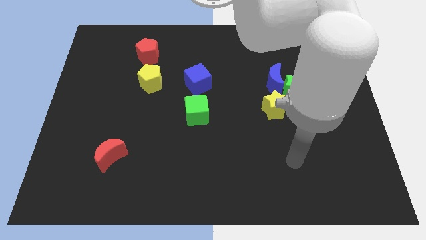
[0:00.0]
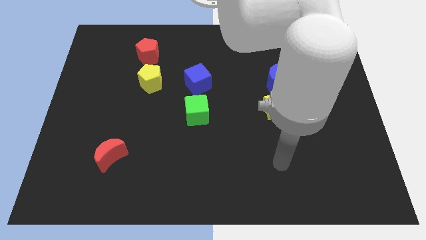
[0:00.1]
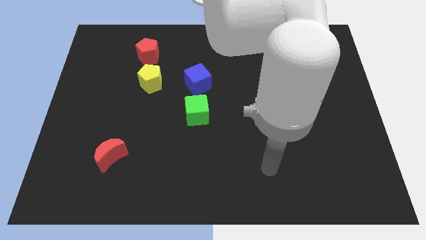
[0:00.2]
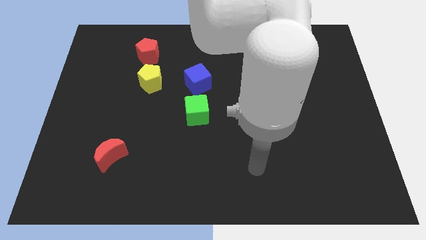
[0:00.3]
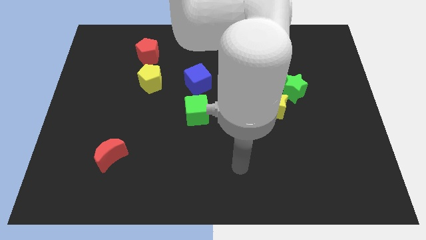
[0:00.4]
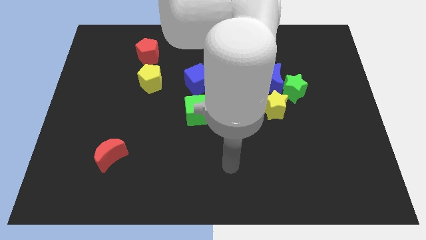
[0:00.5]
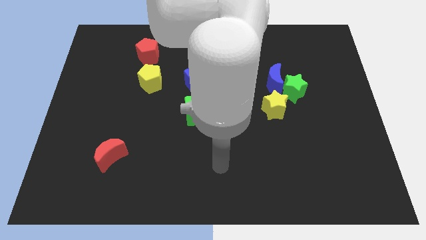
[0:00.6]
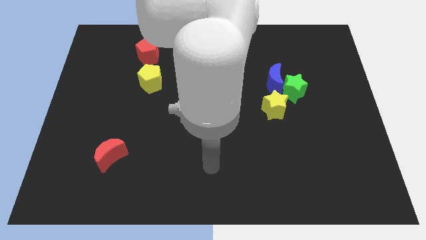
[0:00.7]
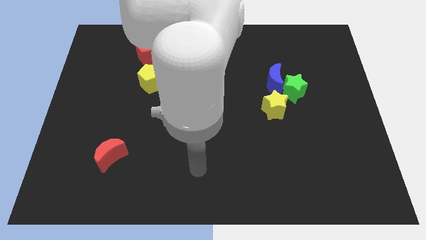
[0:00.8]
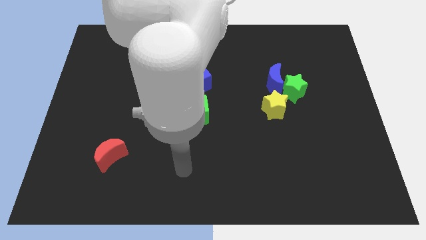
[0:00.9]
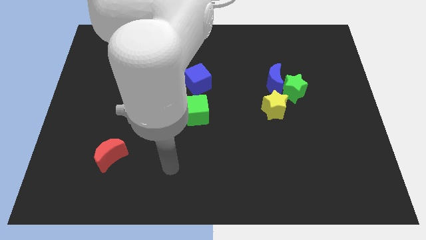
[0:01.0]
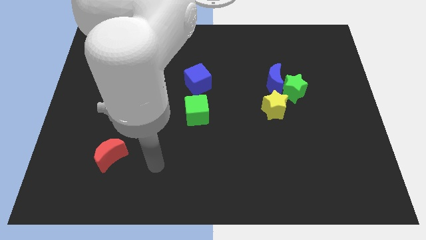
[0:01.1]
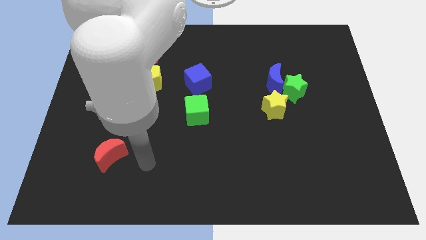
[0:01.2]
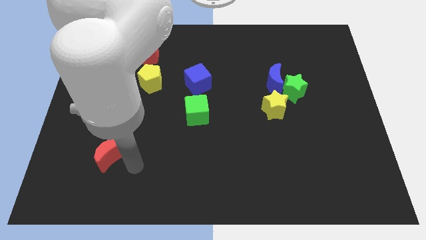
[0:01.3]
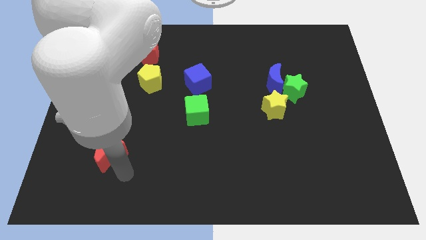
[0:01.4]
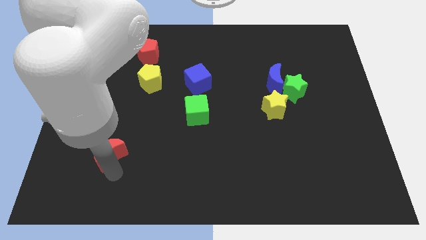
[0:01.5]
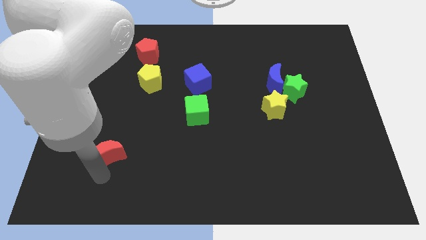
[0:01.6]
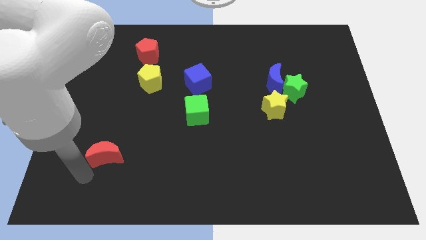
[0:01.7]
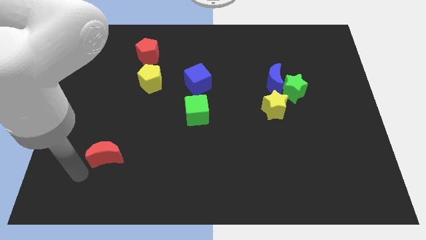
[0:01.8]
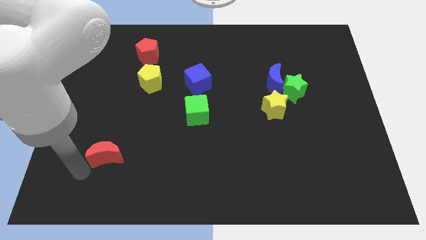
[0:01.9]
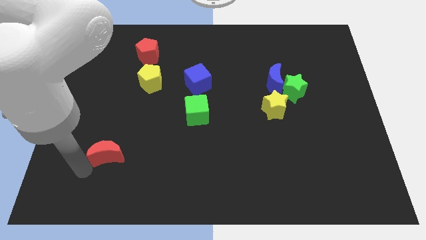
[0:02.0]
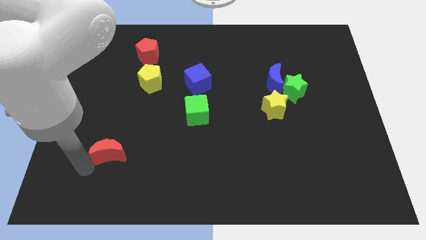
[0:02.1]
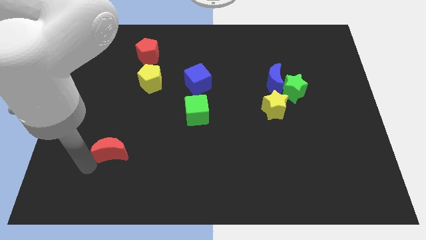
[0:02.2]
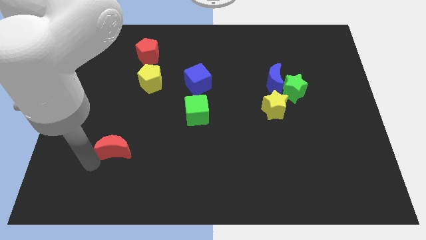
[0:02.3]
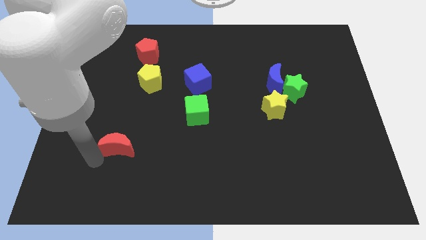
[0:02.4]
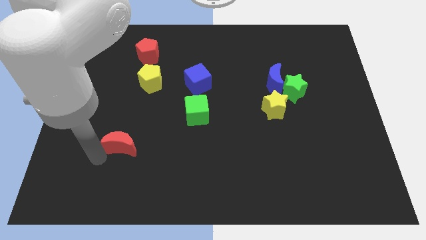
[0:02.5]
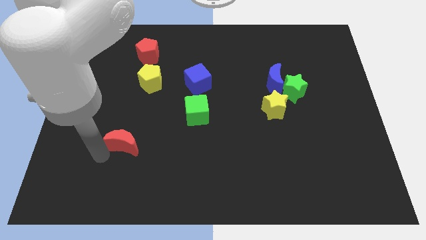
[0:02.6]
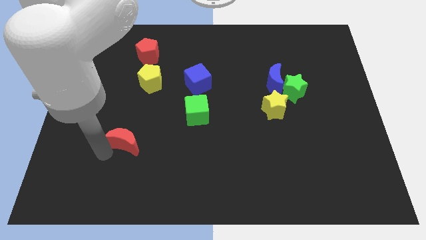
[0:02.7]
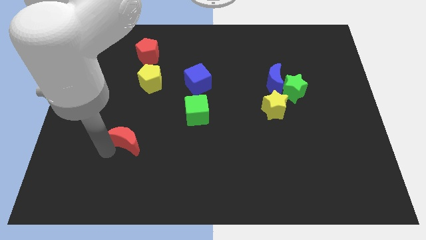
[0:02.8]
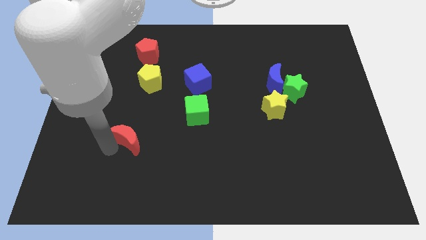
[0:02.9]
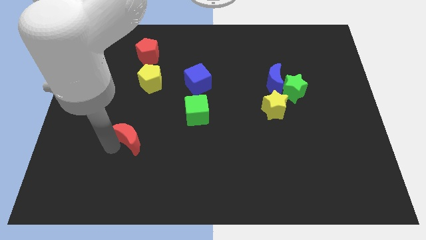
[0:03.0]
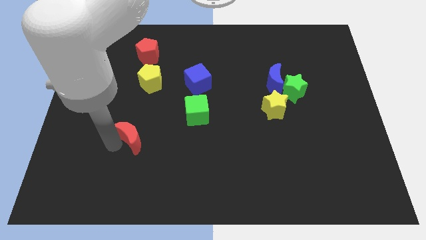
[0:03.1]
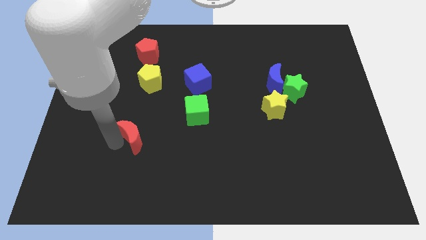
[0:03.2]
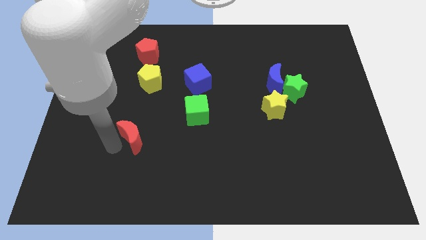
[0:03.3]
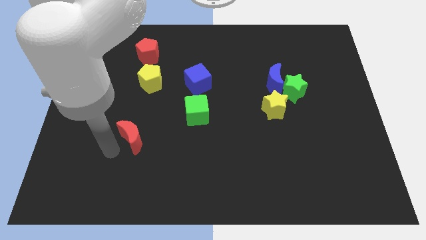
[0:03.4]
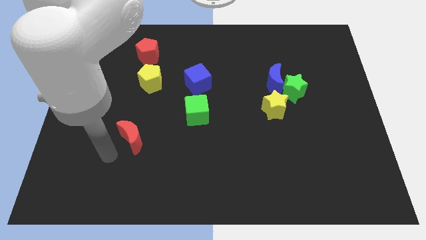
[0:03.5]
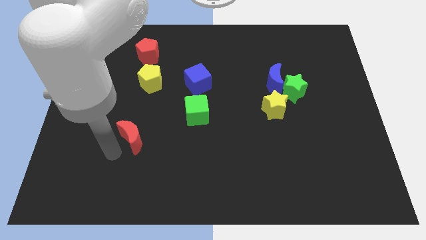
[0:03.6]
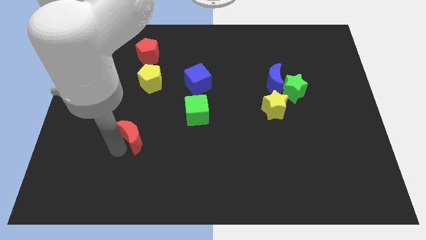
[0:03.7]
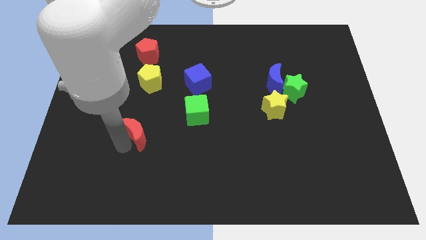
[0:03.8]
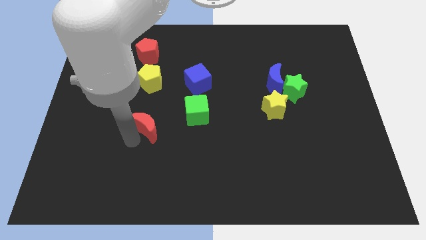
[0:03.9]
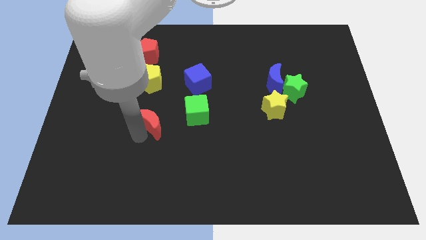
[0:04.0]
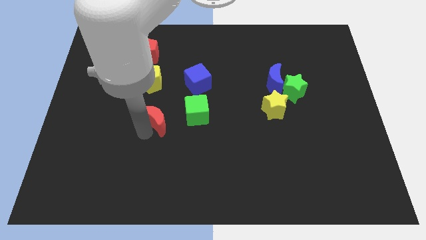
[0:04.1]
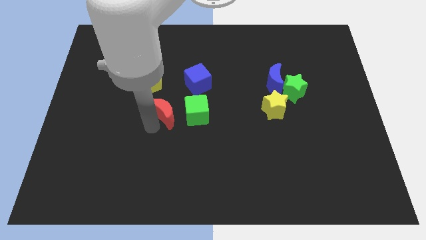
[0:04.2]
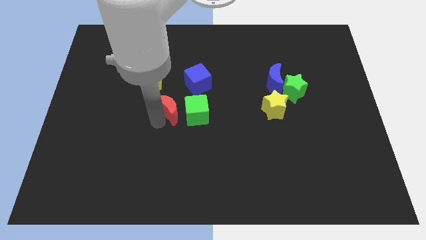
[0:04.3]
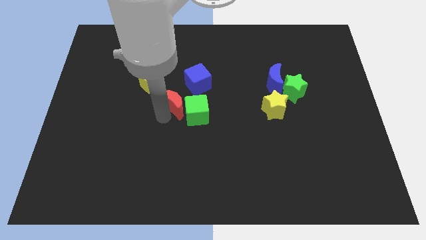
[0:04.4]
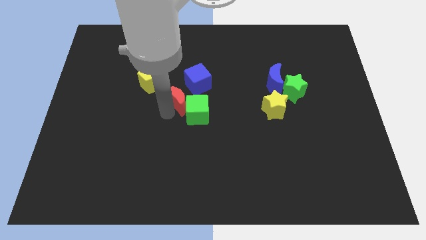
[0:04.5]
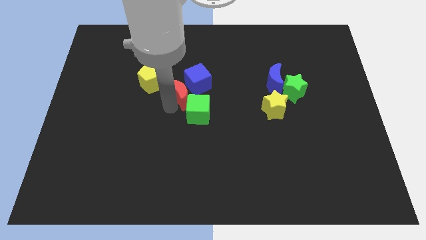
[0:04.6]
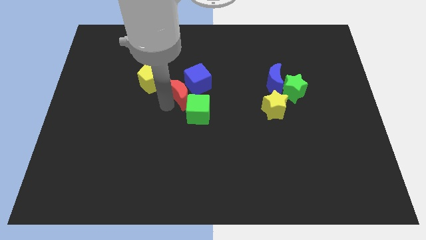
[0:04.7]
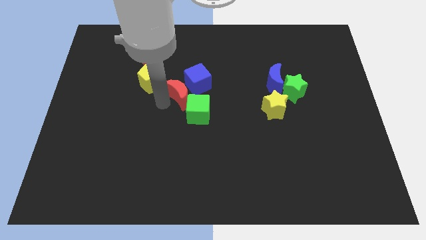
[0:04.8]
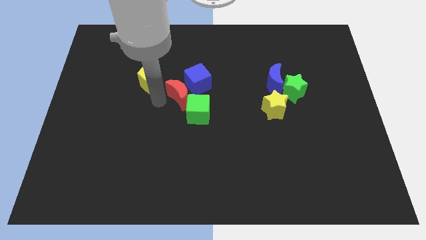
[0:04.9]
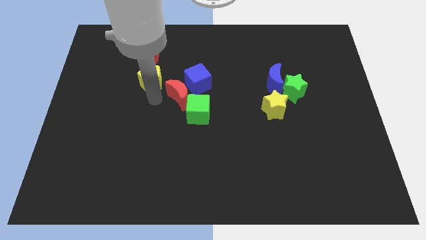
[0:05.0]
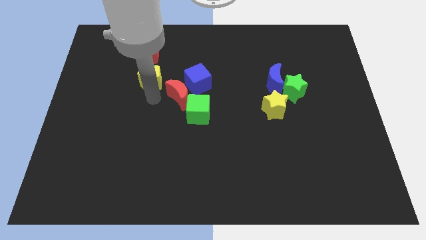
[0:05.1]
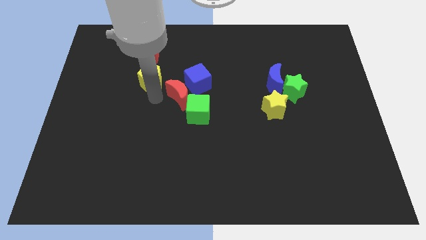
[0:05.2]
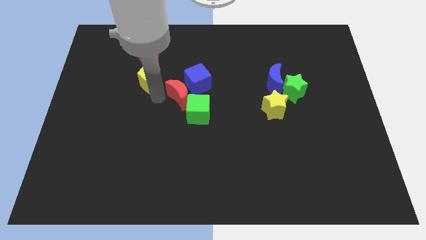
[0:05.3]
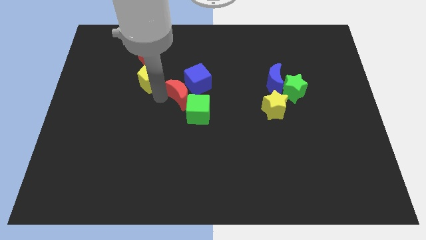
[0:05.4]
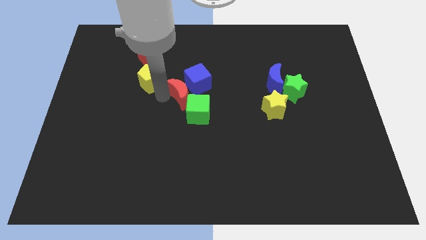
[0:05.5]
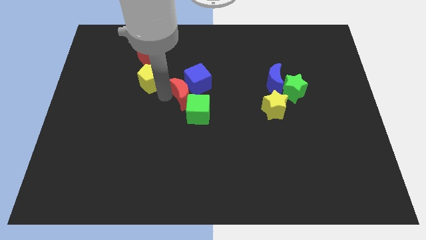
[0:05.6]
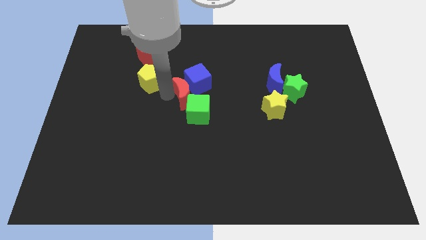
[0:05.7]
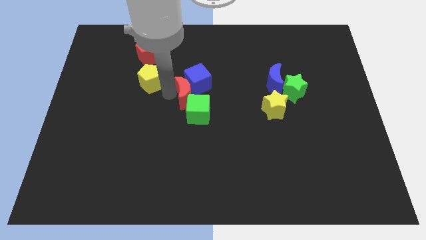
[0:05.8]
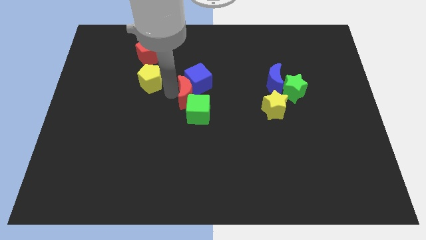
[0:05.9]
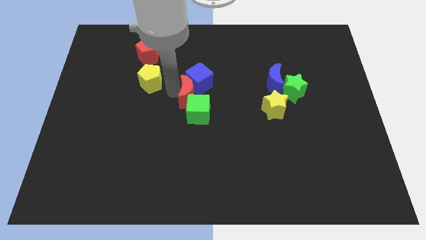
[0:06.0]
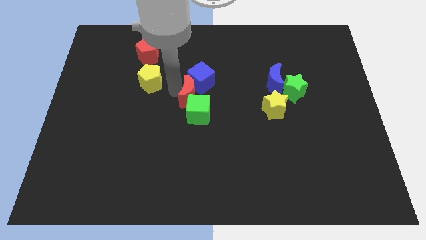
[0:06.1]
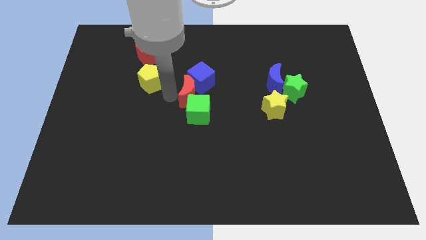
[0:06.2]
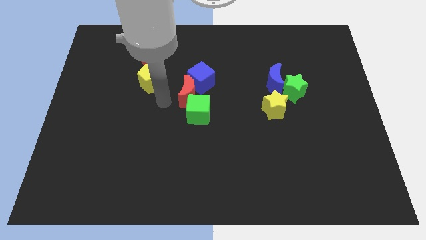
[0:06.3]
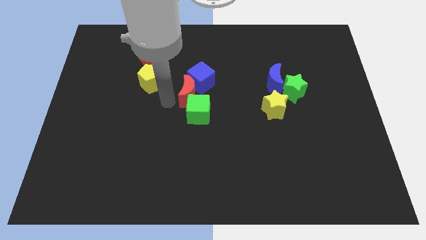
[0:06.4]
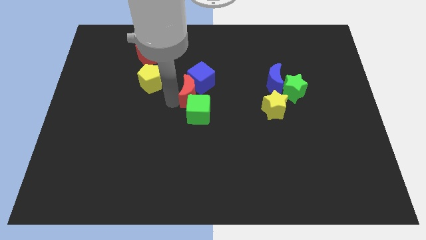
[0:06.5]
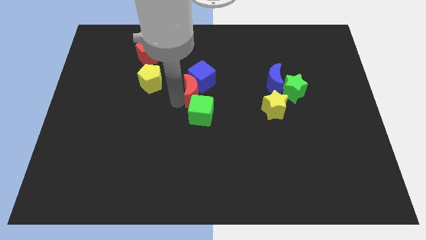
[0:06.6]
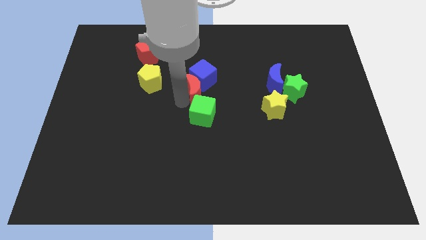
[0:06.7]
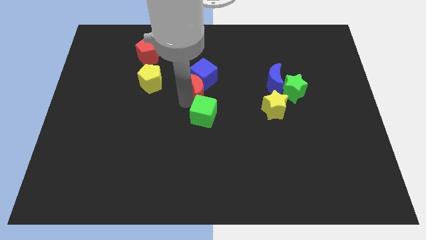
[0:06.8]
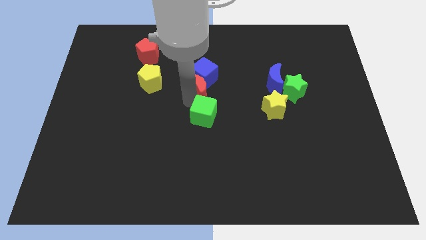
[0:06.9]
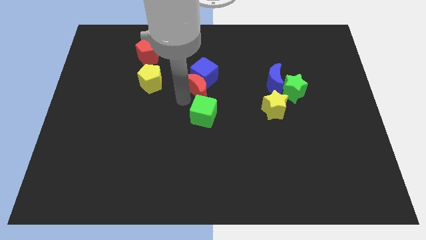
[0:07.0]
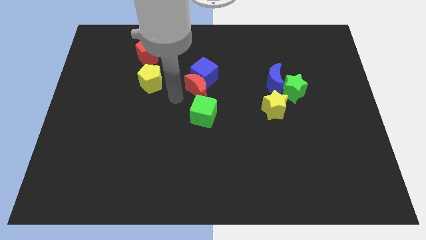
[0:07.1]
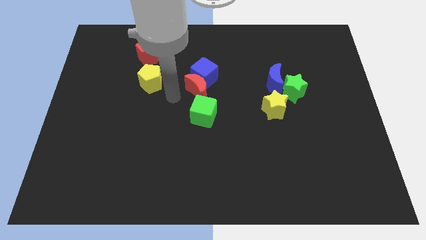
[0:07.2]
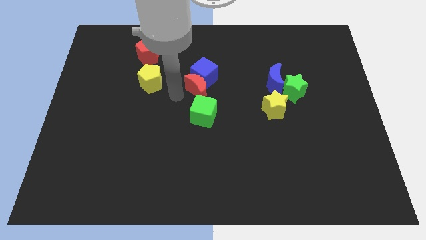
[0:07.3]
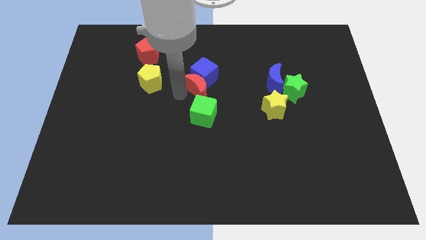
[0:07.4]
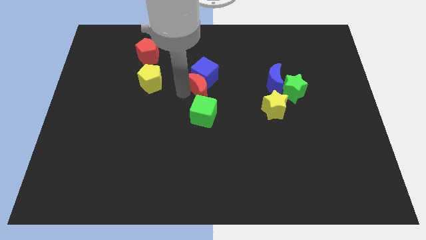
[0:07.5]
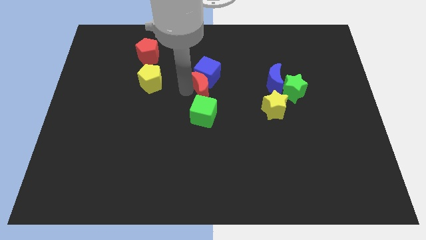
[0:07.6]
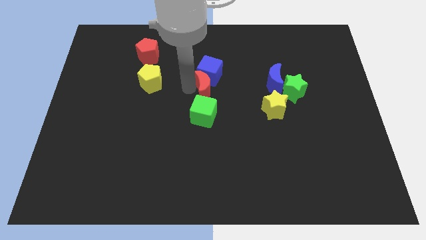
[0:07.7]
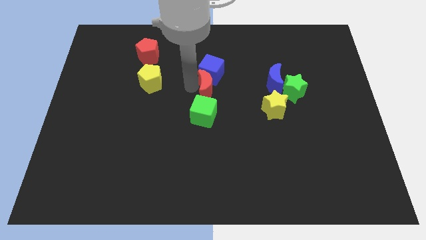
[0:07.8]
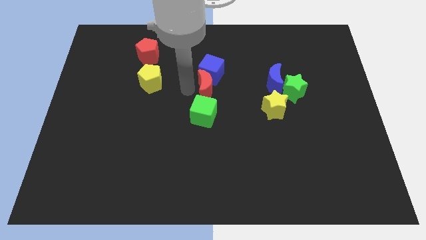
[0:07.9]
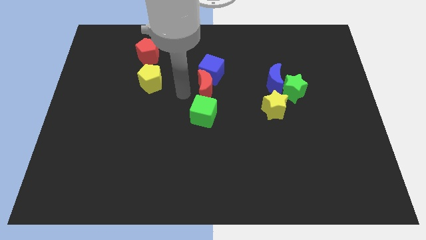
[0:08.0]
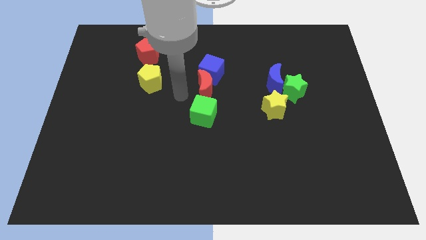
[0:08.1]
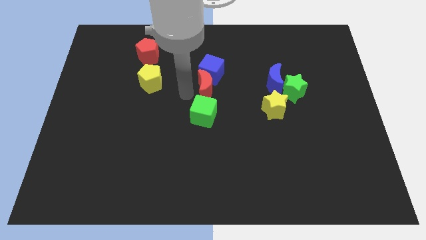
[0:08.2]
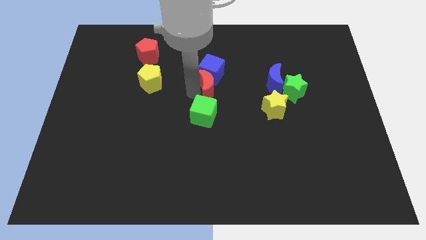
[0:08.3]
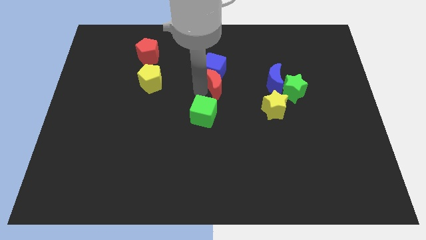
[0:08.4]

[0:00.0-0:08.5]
slide the red moon to the left side of the blue moon
